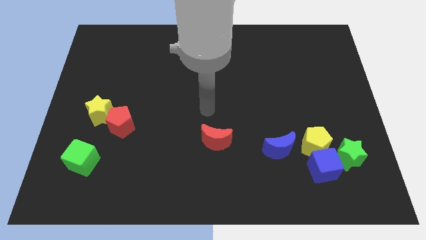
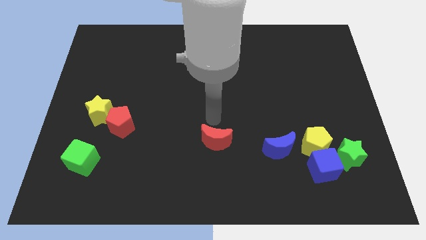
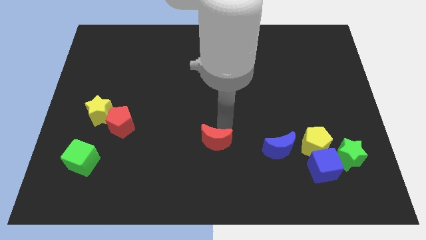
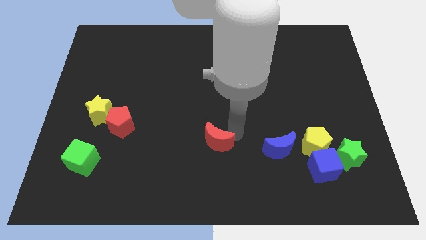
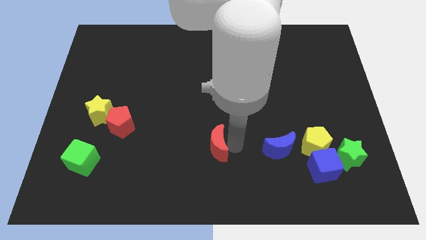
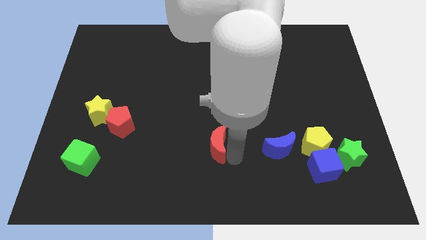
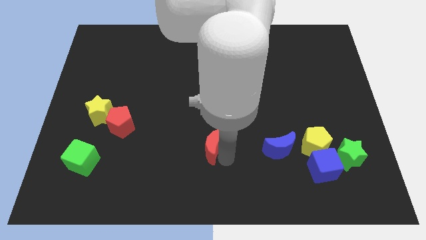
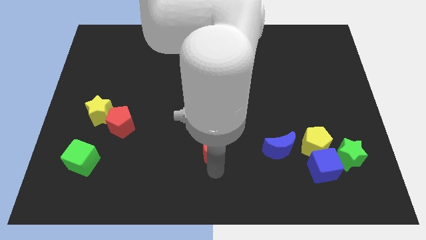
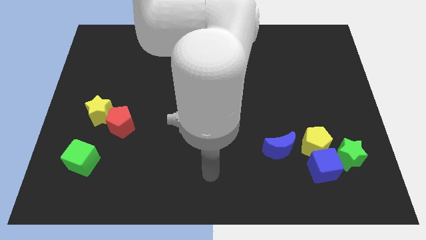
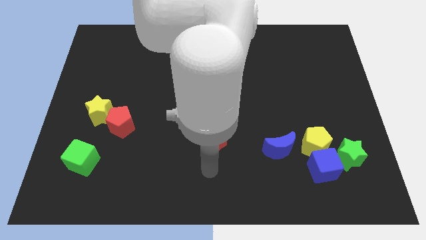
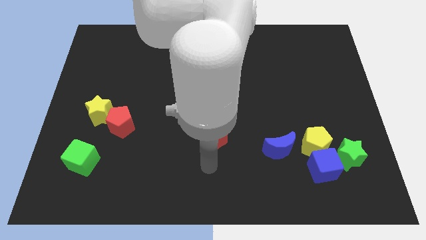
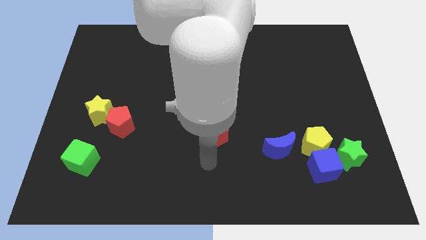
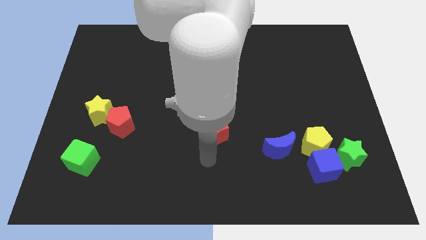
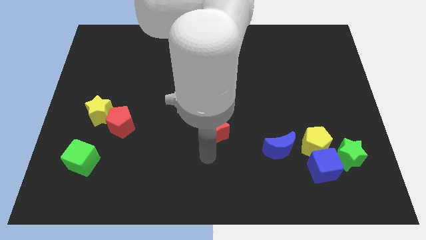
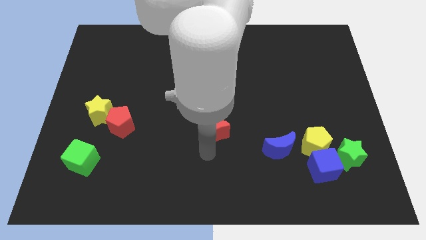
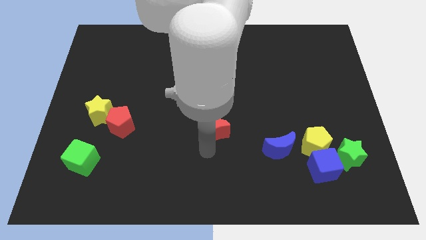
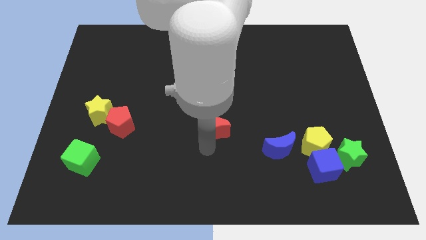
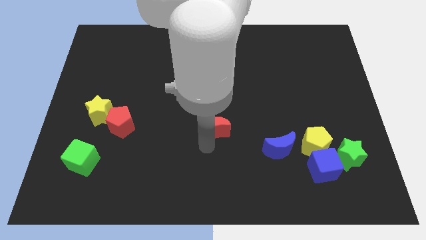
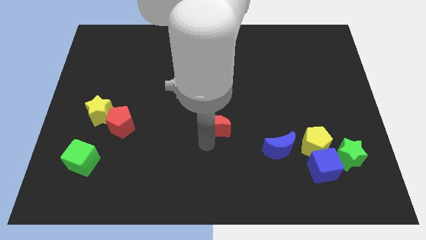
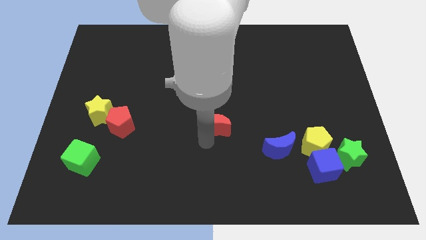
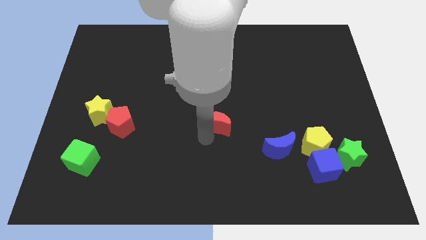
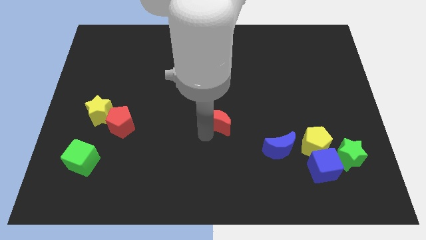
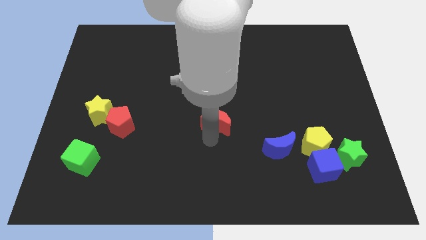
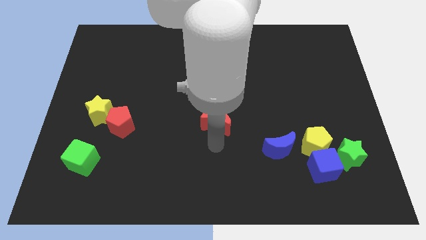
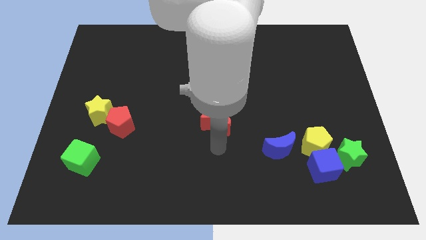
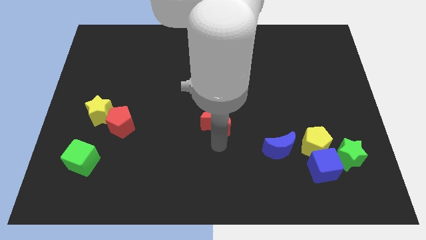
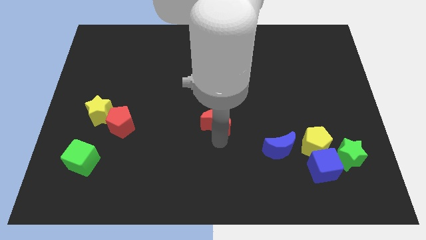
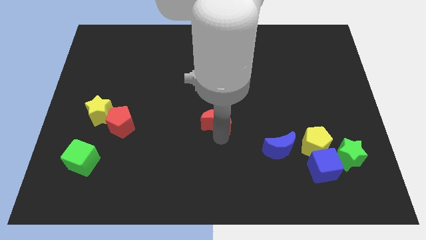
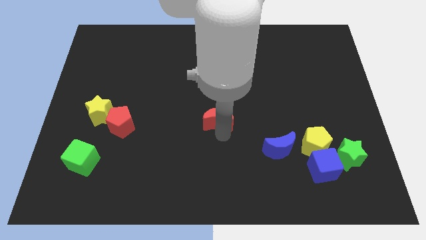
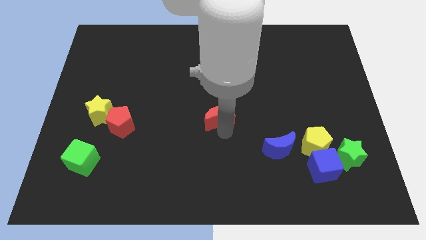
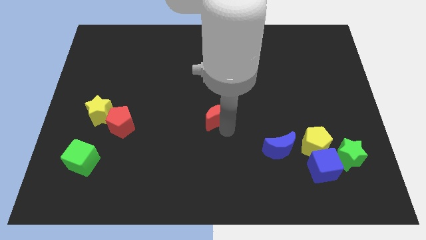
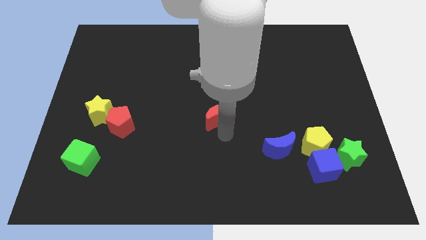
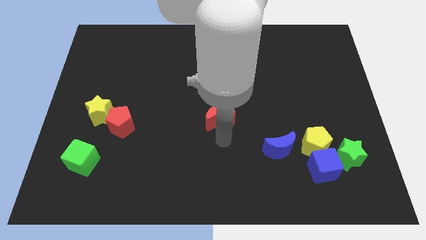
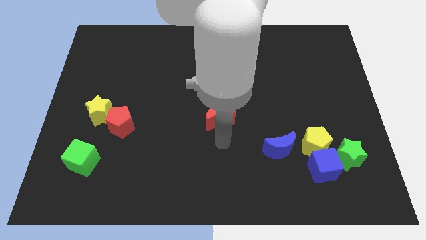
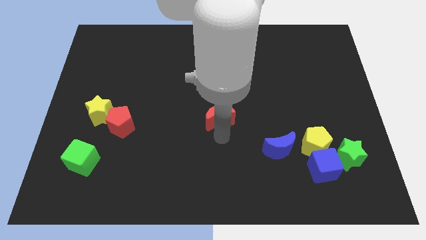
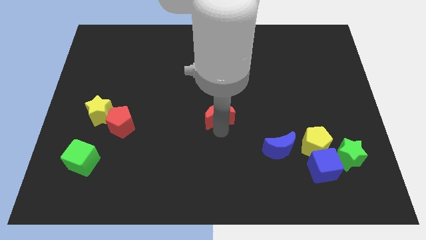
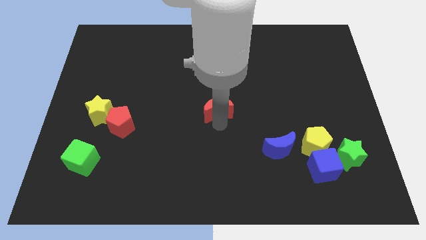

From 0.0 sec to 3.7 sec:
push the red moon upwards a little bit

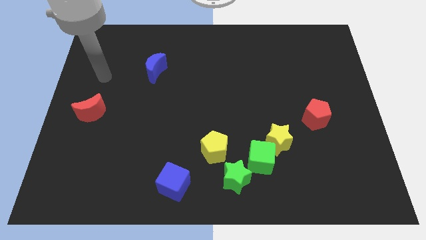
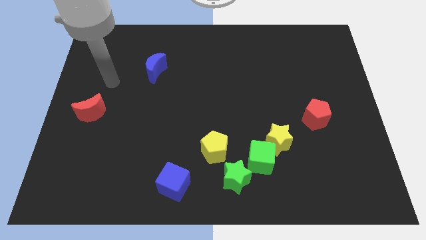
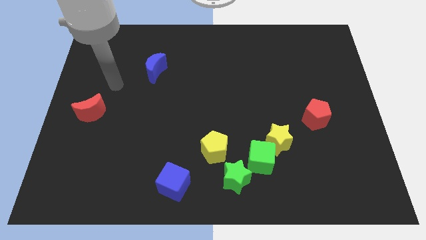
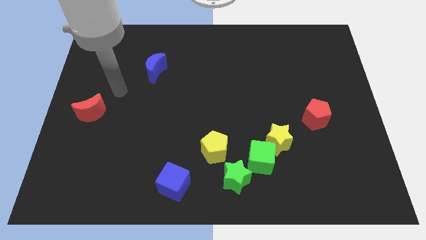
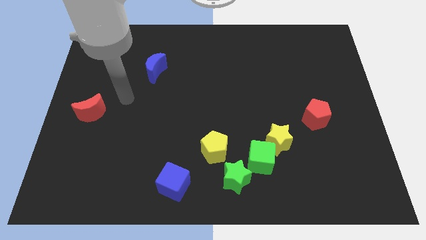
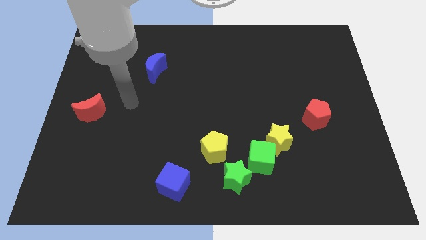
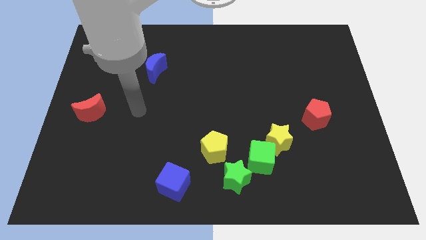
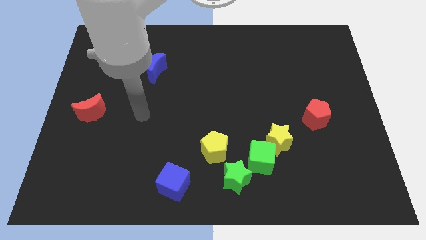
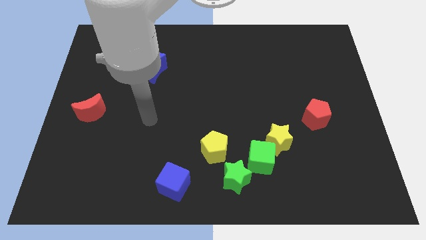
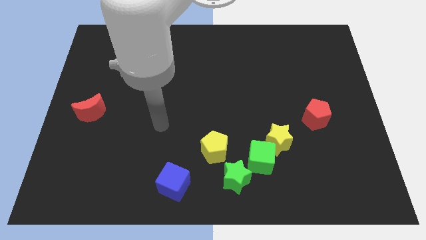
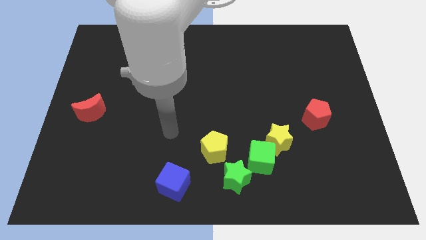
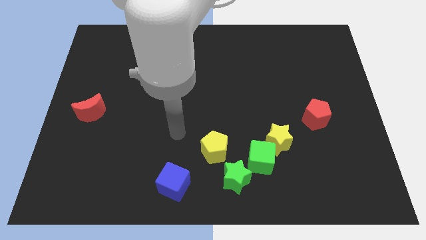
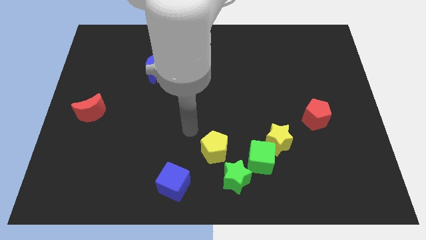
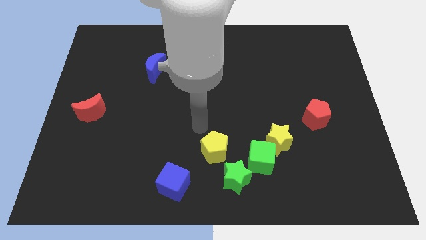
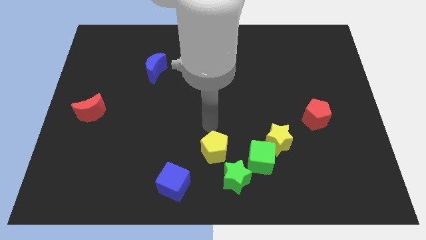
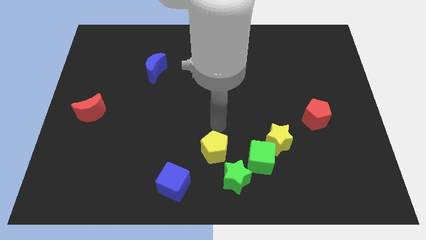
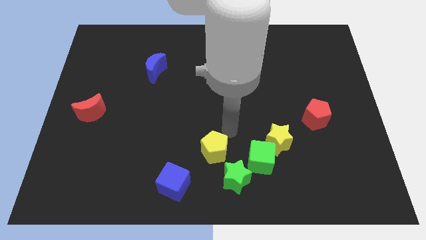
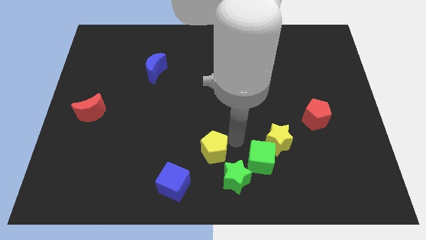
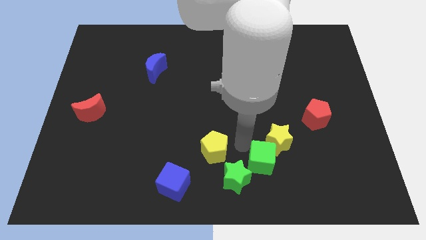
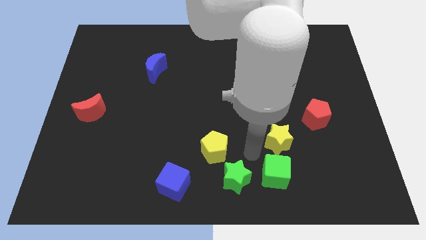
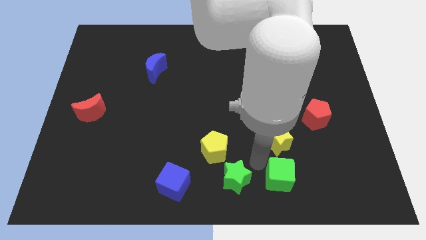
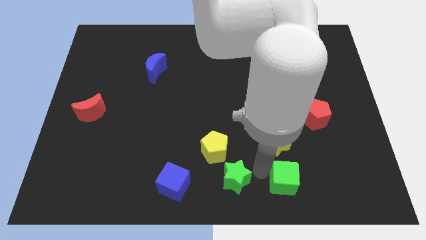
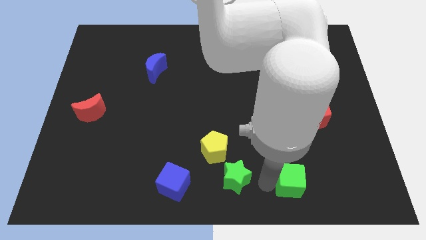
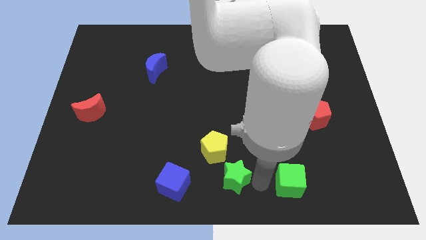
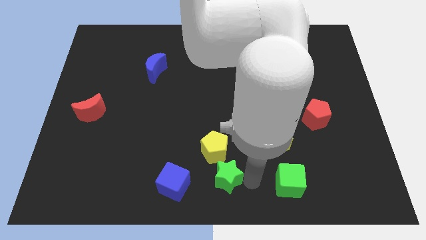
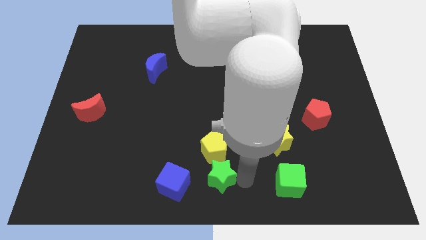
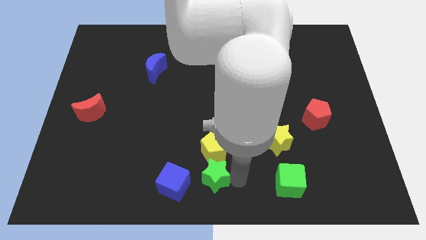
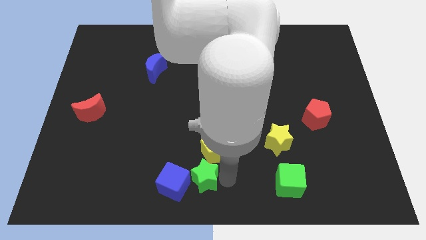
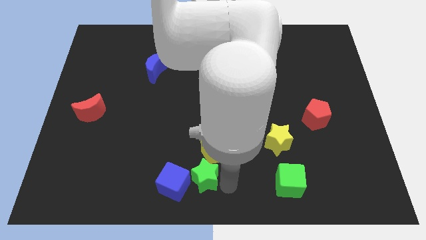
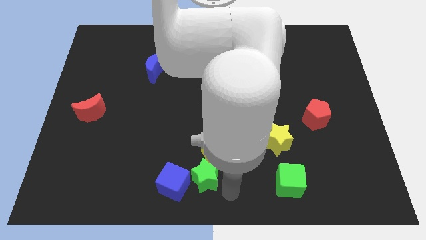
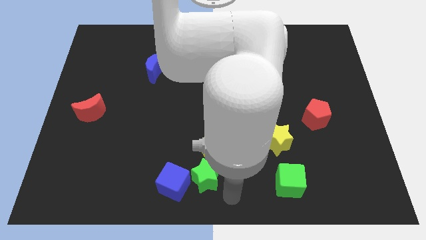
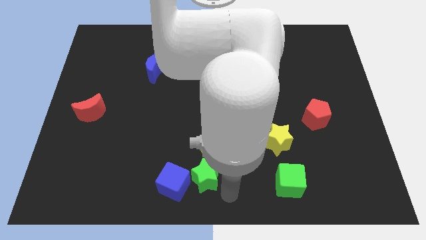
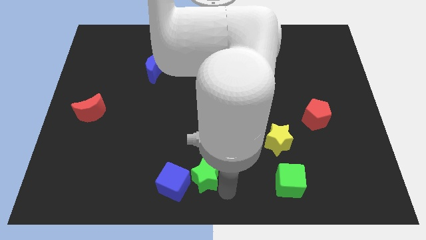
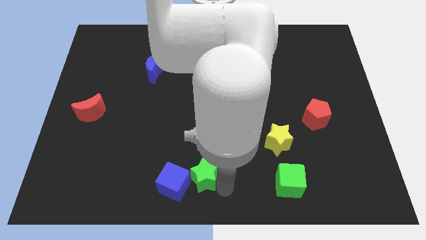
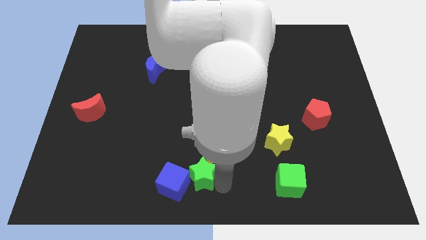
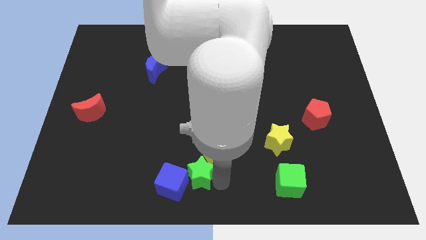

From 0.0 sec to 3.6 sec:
slide the green star left a bit

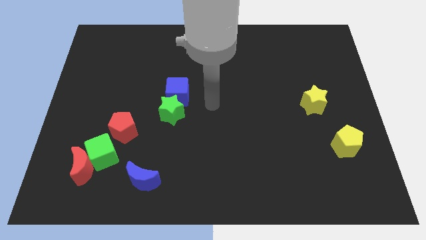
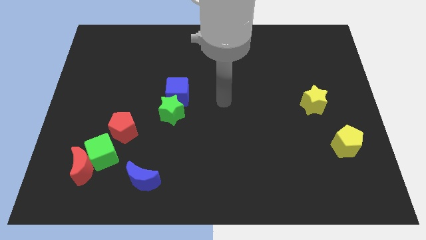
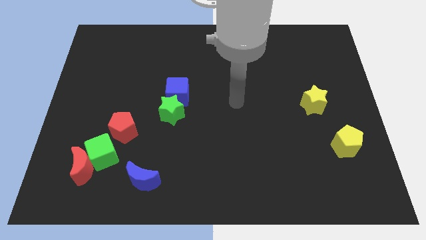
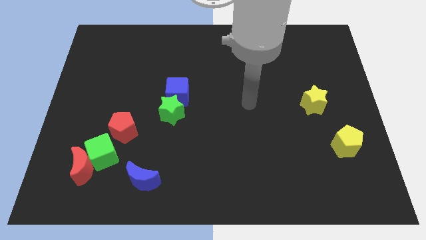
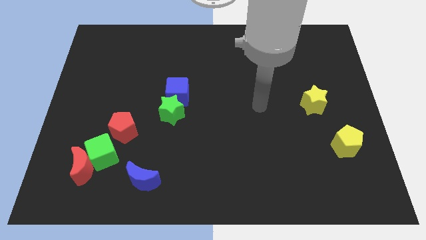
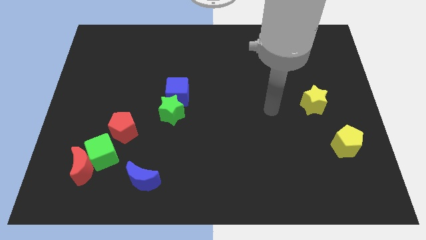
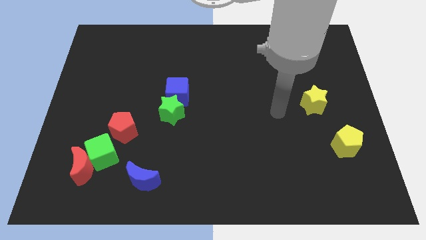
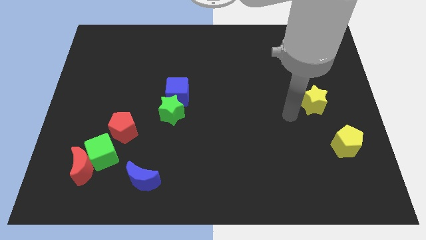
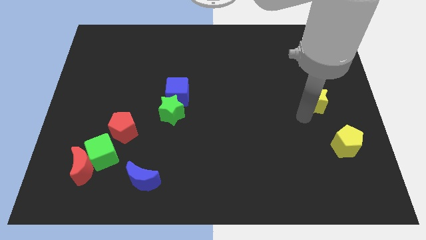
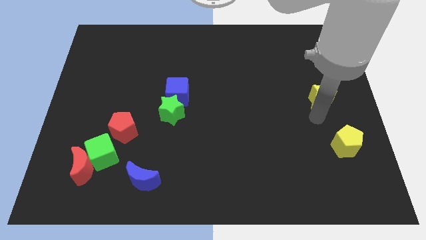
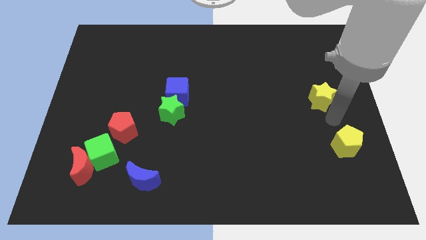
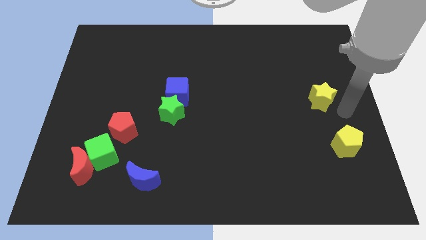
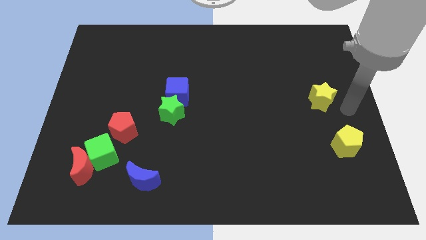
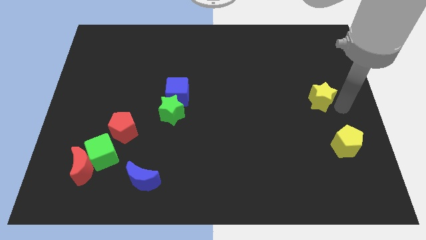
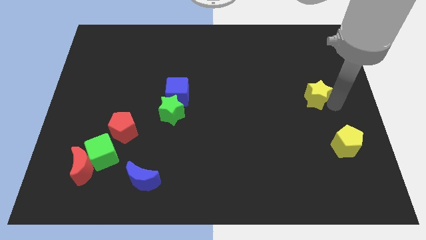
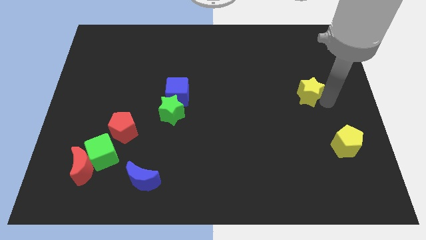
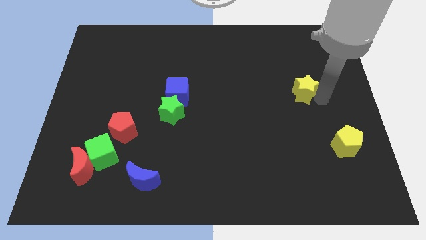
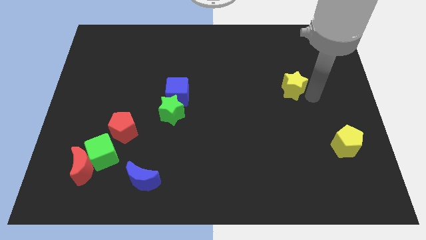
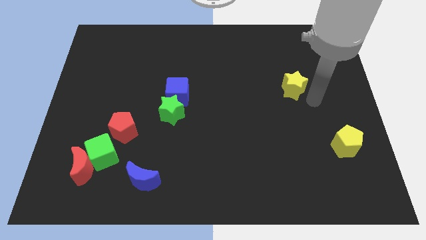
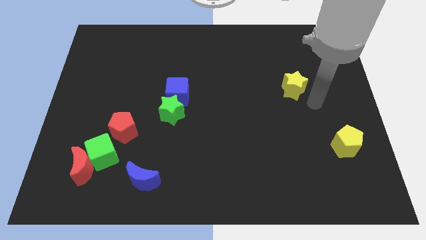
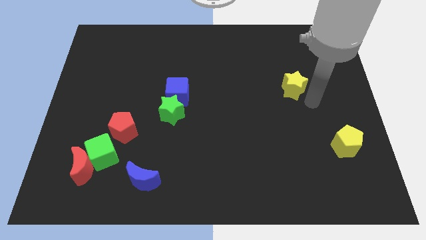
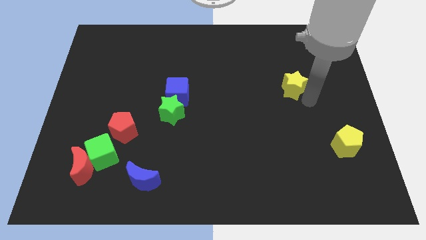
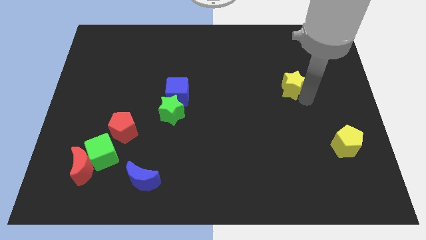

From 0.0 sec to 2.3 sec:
move the yellow star somewhat up and then left
